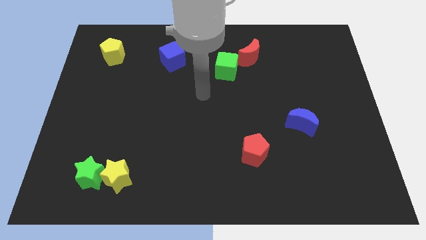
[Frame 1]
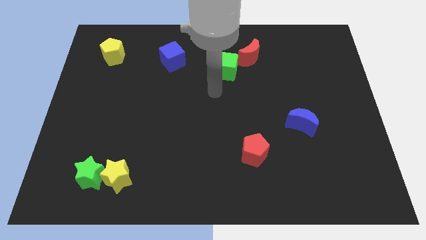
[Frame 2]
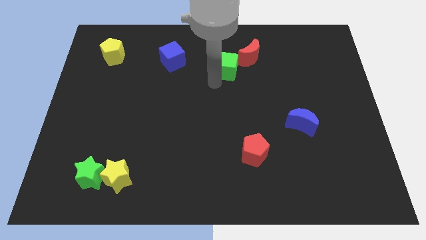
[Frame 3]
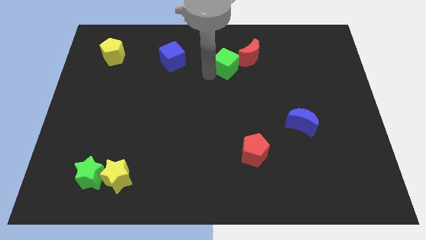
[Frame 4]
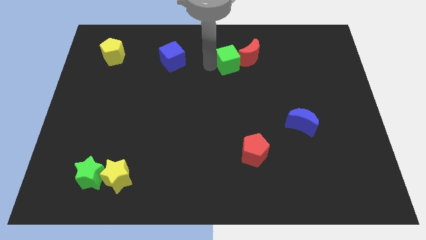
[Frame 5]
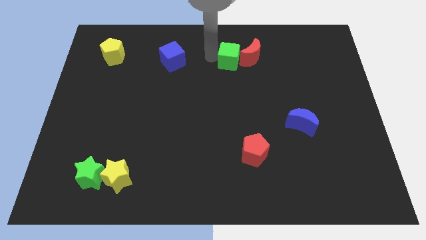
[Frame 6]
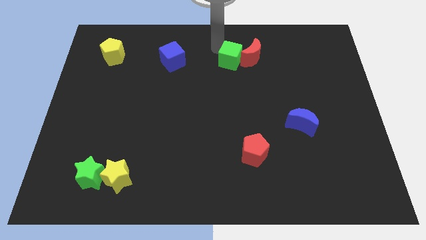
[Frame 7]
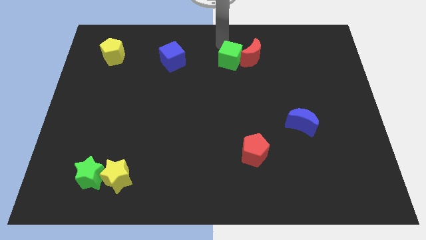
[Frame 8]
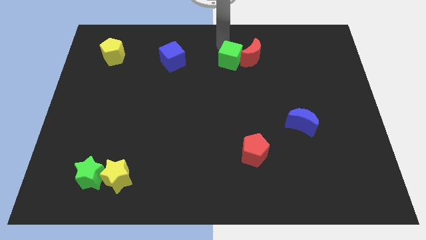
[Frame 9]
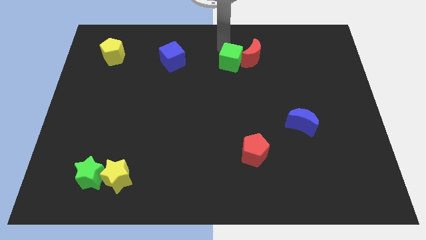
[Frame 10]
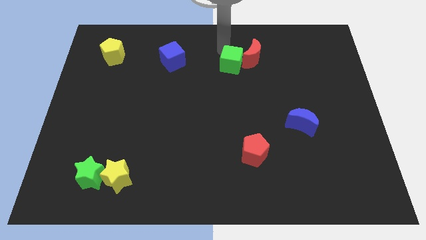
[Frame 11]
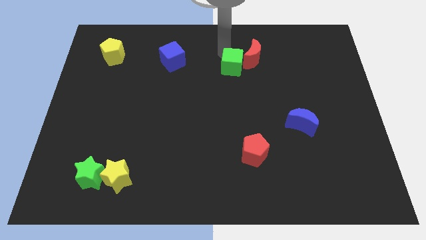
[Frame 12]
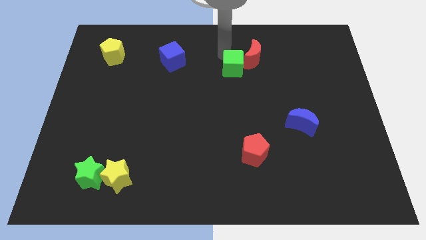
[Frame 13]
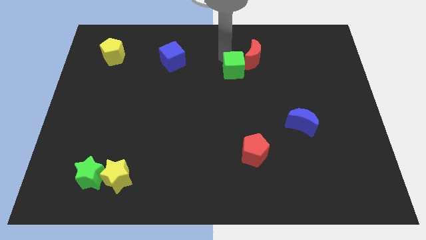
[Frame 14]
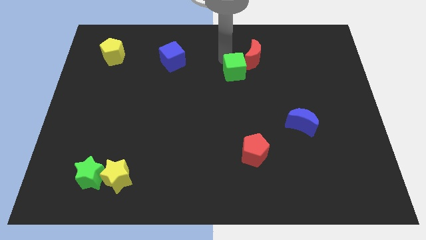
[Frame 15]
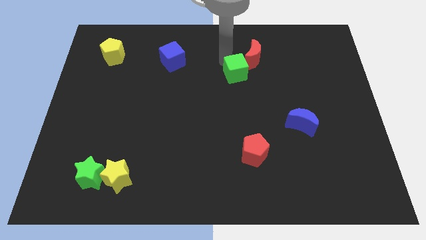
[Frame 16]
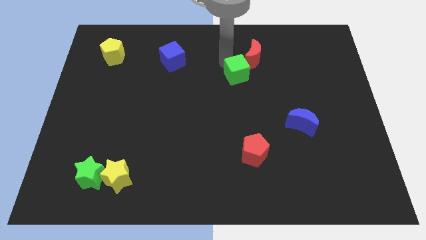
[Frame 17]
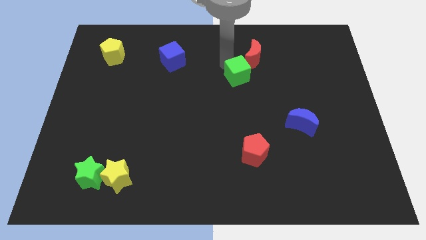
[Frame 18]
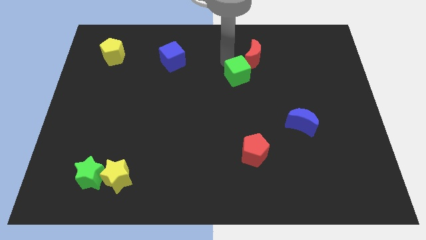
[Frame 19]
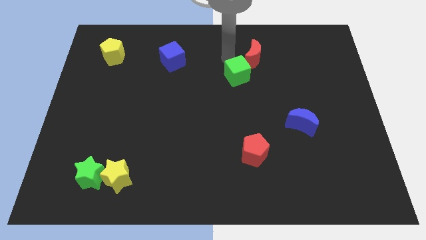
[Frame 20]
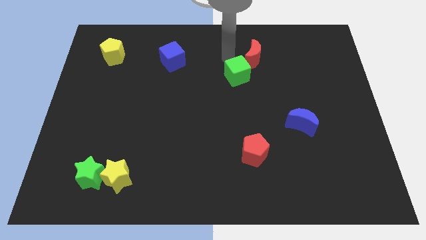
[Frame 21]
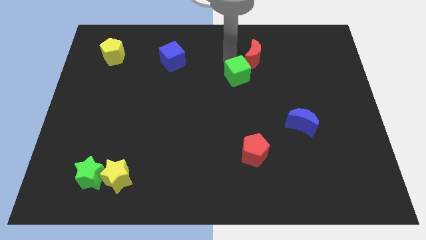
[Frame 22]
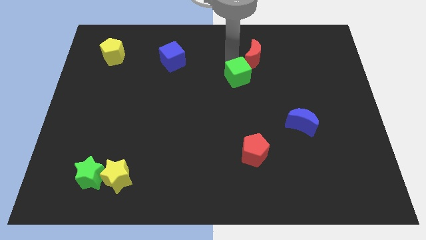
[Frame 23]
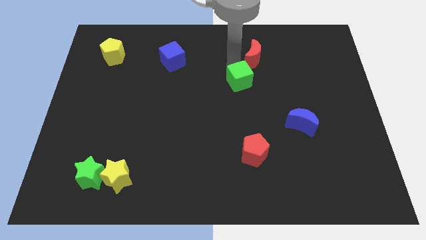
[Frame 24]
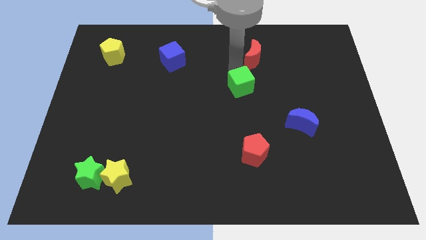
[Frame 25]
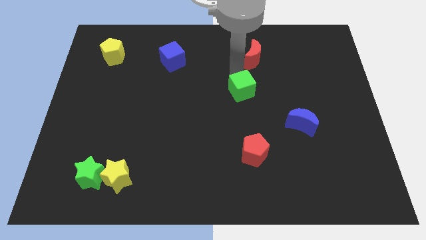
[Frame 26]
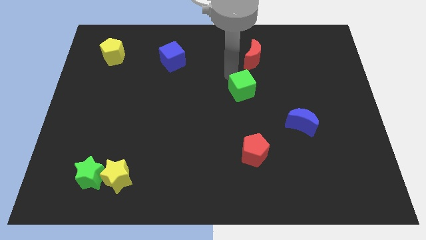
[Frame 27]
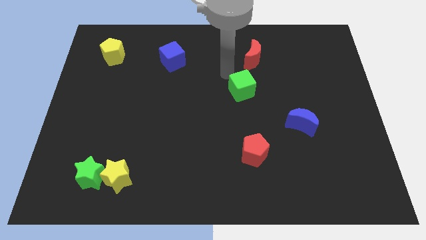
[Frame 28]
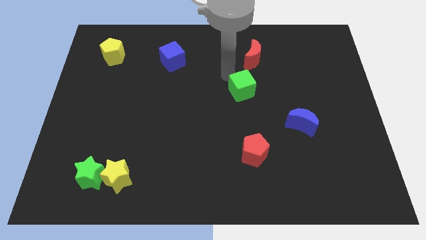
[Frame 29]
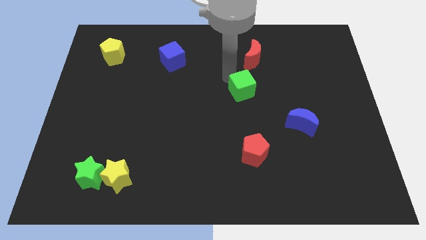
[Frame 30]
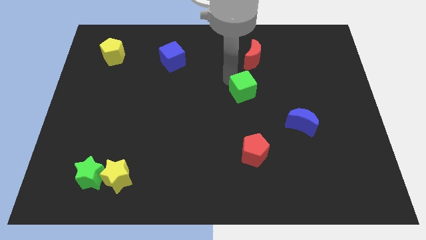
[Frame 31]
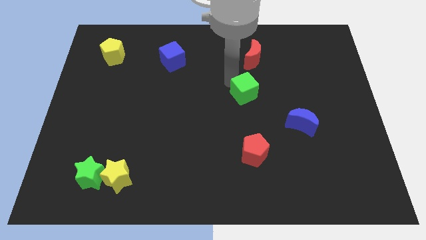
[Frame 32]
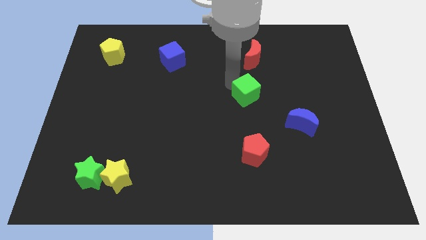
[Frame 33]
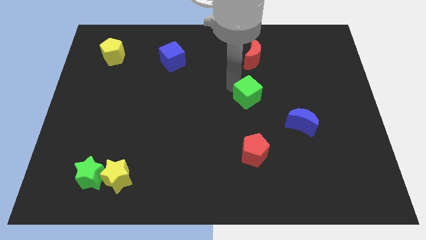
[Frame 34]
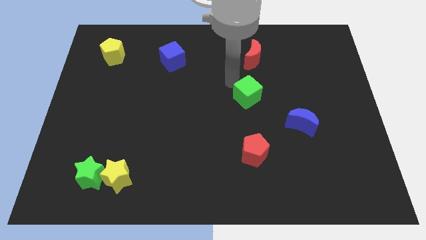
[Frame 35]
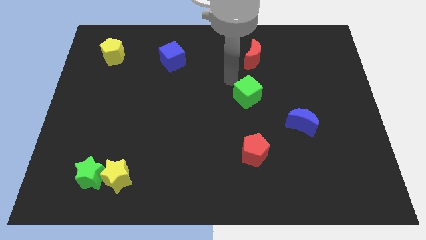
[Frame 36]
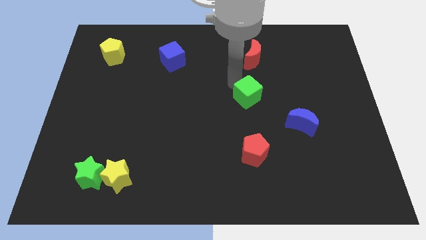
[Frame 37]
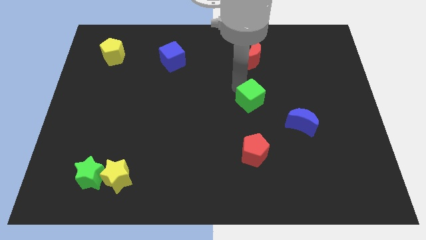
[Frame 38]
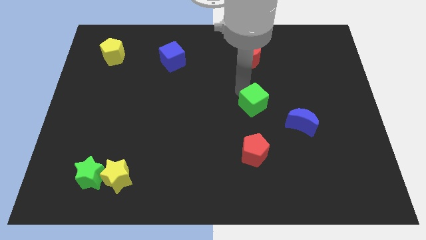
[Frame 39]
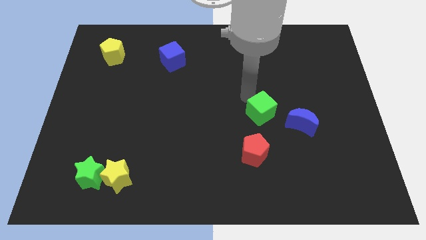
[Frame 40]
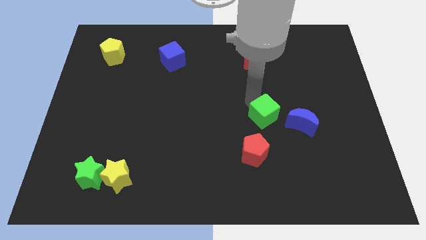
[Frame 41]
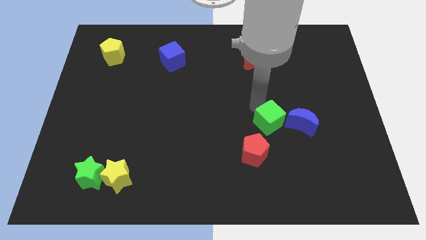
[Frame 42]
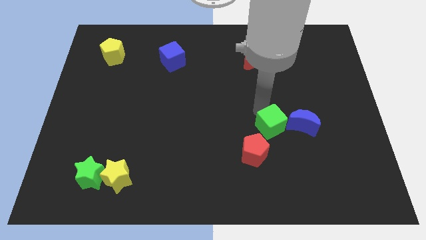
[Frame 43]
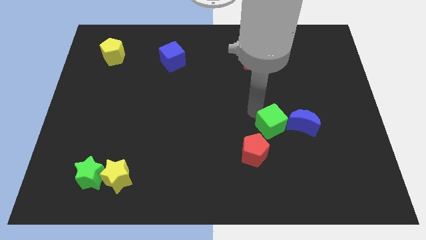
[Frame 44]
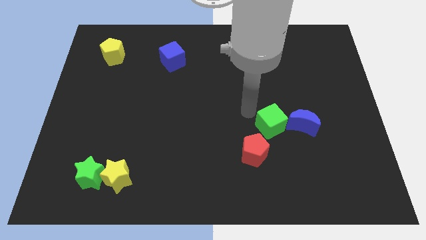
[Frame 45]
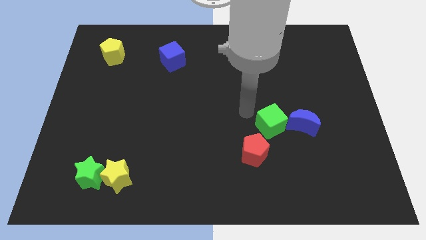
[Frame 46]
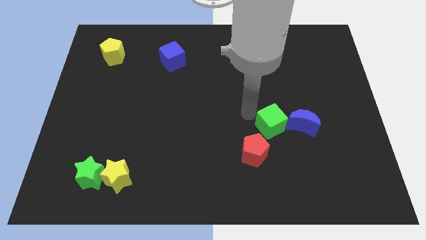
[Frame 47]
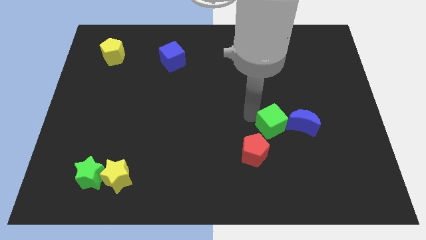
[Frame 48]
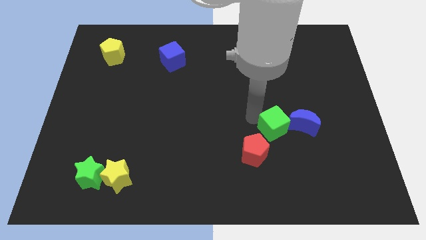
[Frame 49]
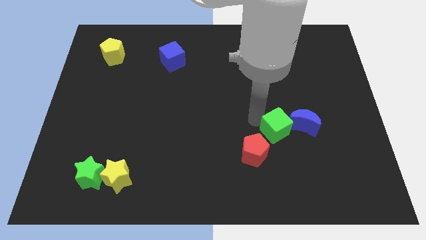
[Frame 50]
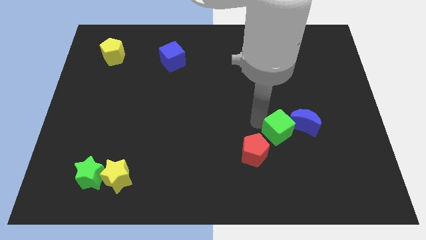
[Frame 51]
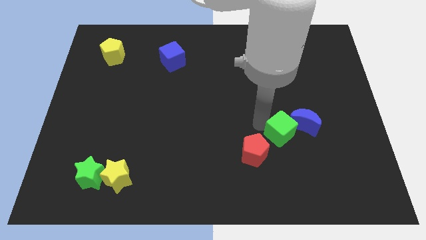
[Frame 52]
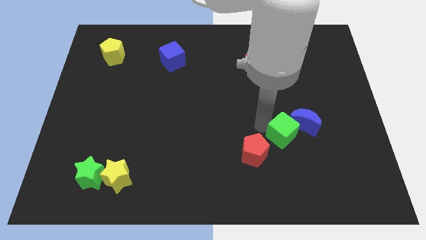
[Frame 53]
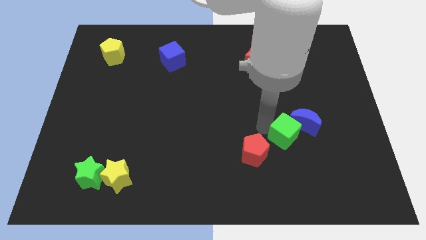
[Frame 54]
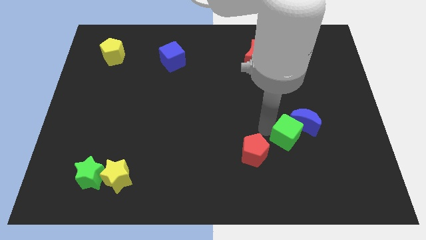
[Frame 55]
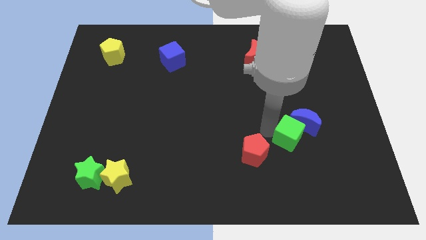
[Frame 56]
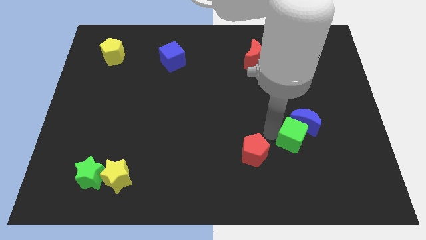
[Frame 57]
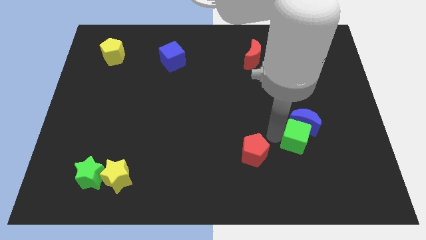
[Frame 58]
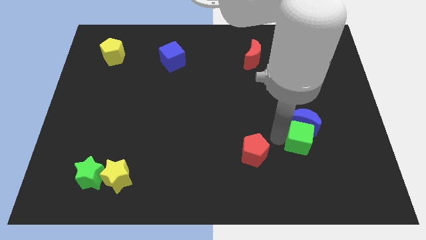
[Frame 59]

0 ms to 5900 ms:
put the green cube diagonally down and to the right of the blue moon

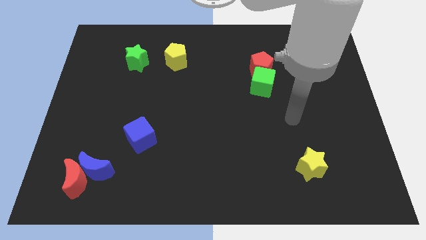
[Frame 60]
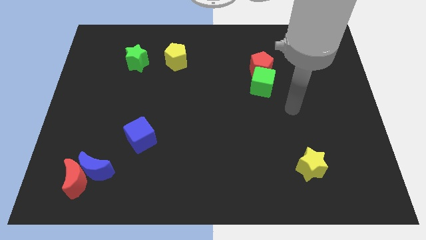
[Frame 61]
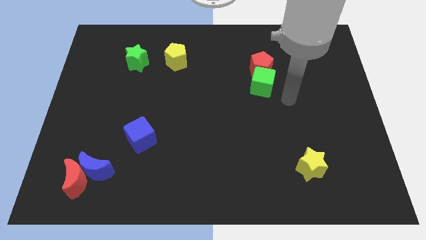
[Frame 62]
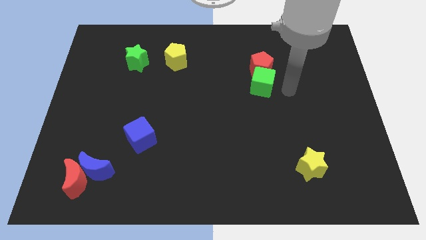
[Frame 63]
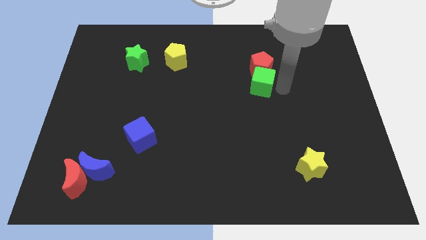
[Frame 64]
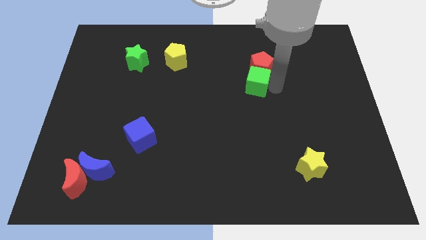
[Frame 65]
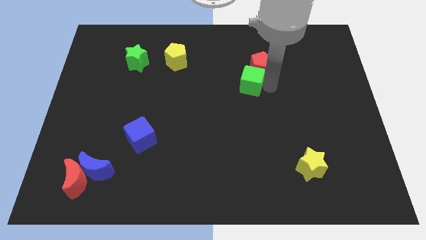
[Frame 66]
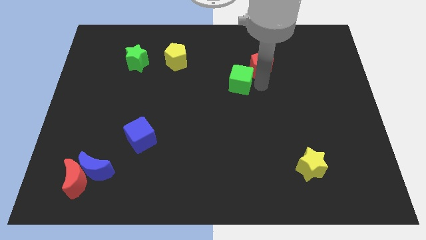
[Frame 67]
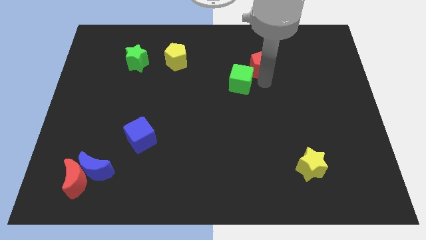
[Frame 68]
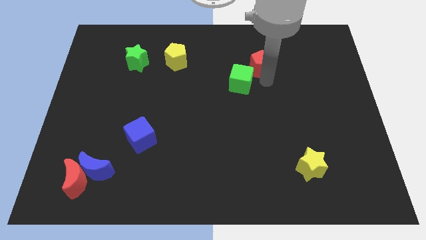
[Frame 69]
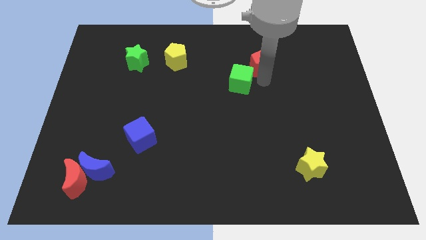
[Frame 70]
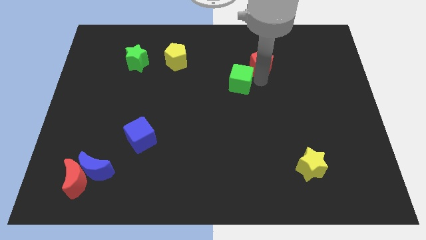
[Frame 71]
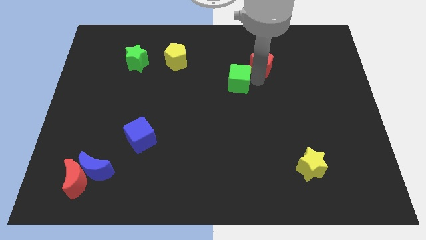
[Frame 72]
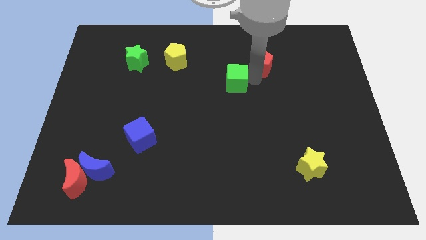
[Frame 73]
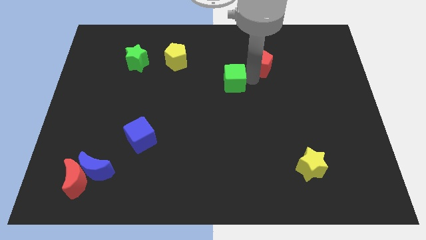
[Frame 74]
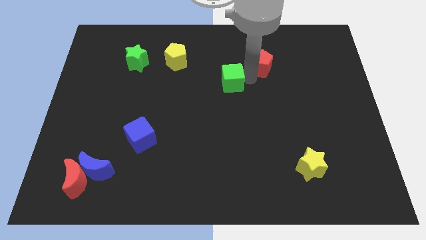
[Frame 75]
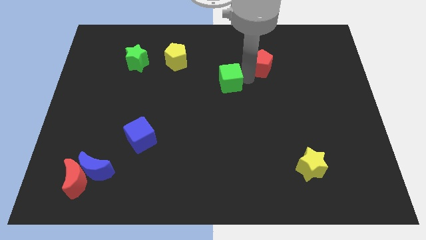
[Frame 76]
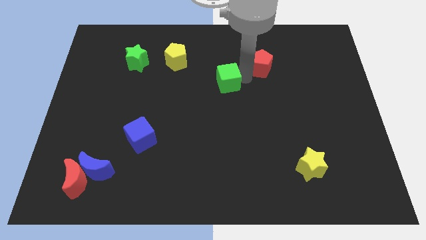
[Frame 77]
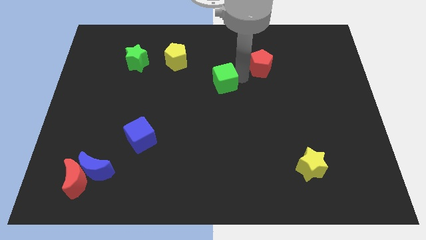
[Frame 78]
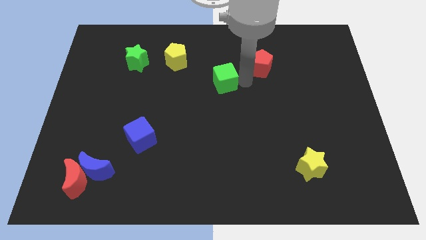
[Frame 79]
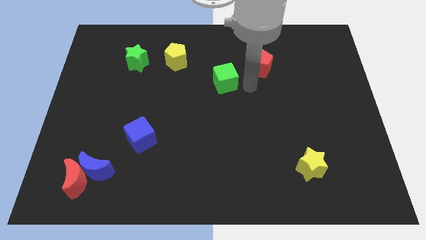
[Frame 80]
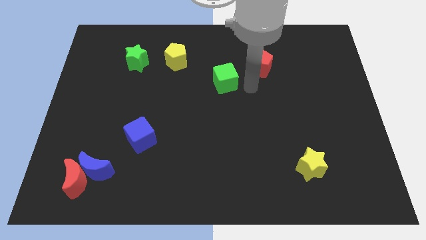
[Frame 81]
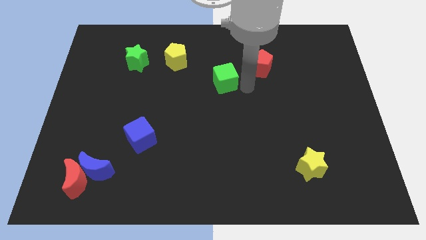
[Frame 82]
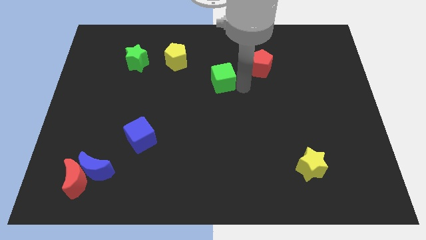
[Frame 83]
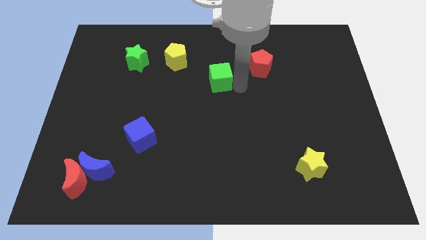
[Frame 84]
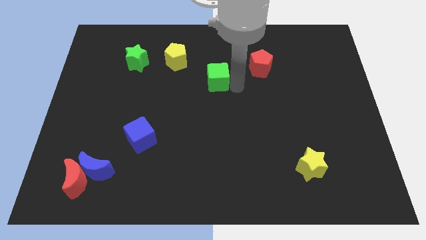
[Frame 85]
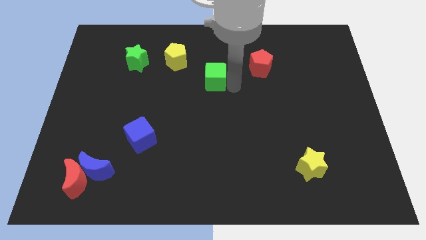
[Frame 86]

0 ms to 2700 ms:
push the green cube to the bottom right side of the yellow pentagon
